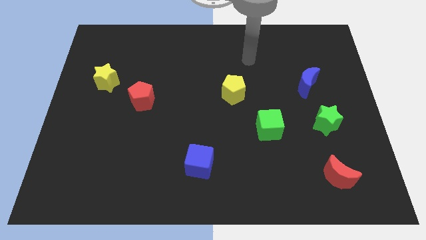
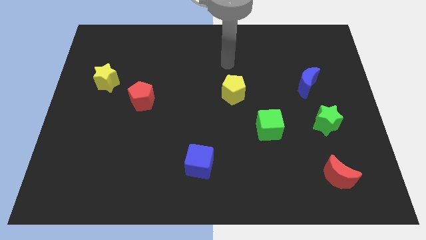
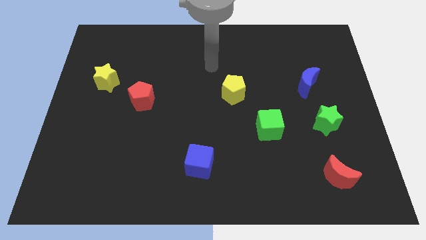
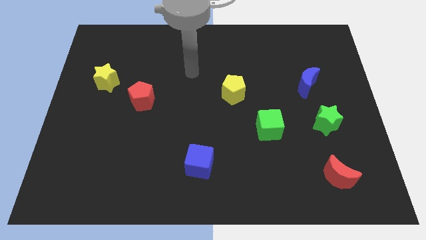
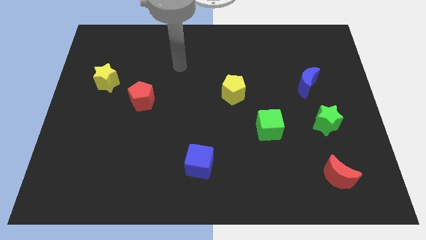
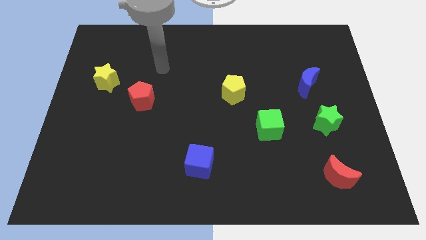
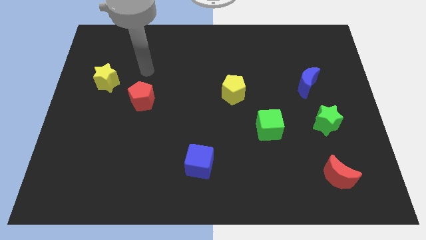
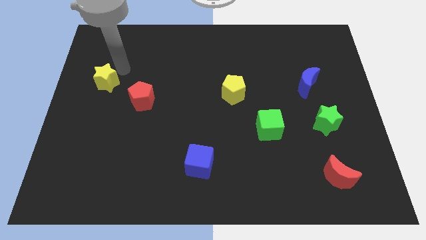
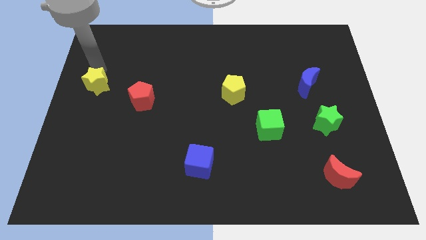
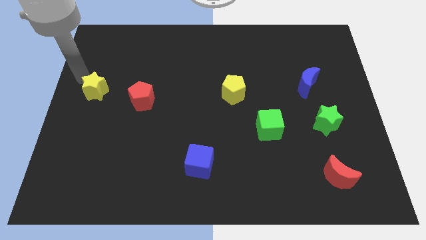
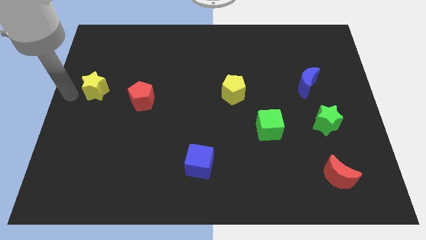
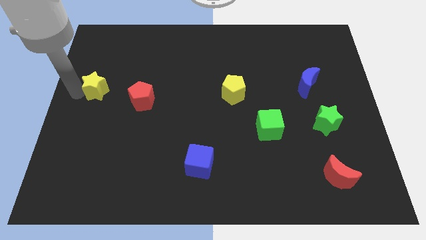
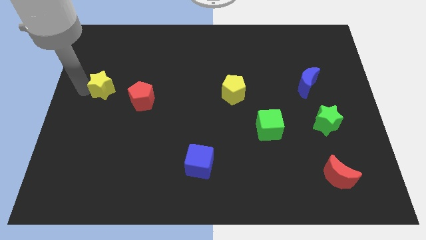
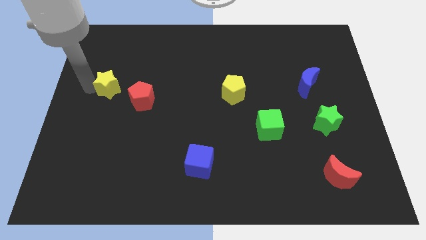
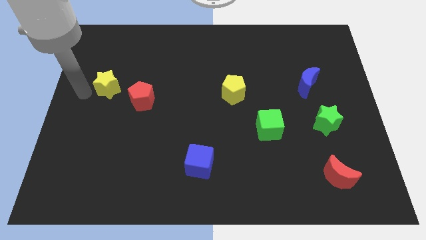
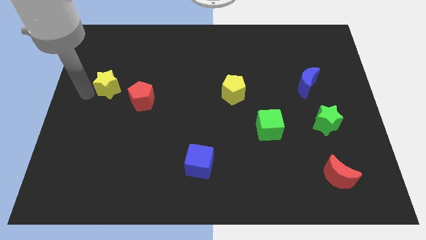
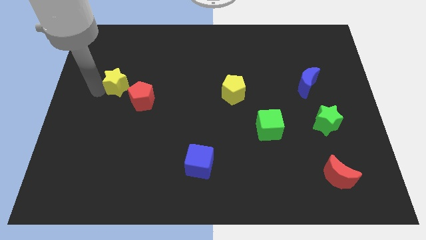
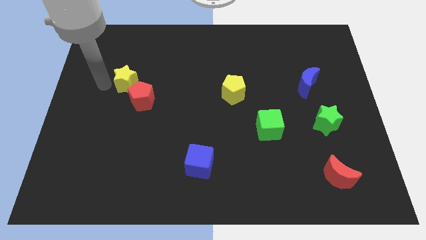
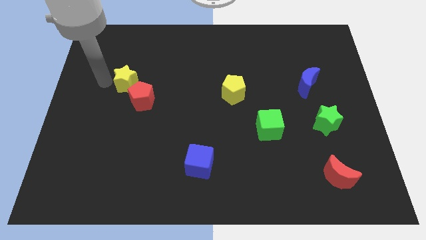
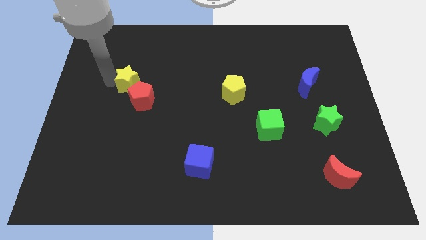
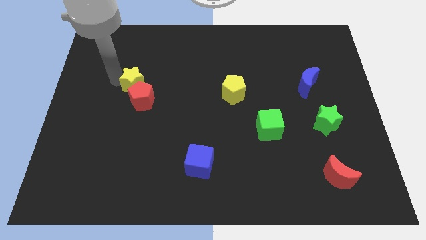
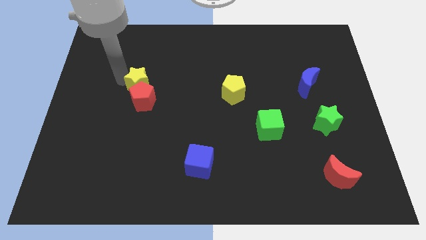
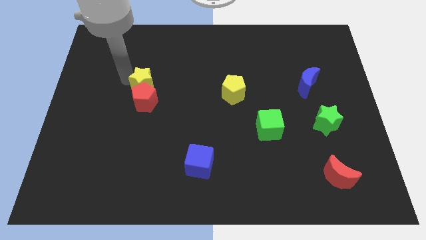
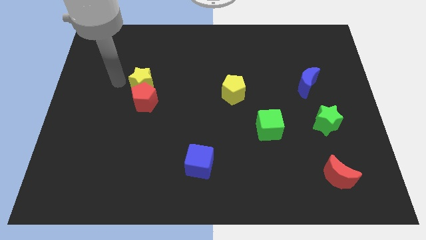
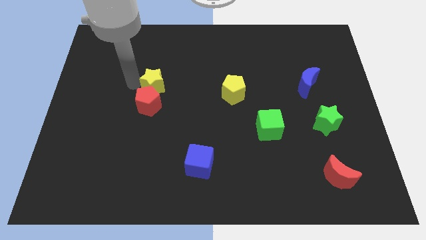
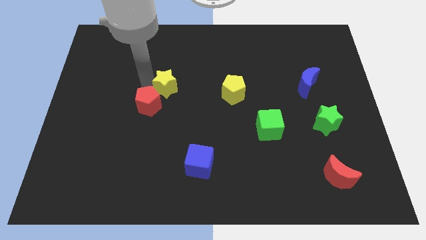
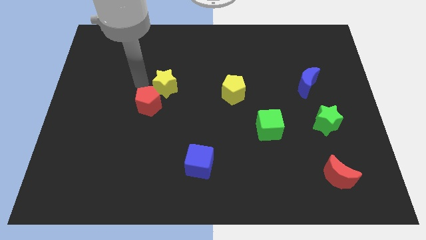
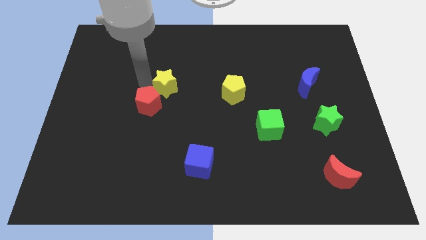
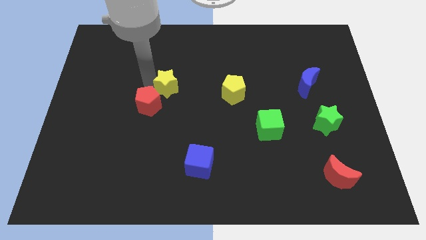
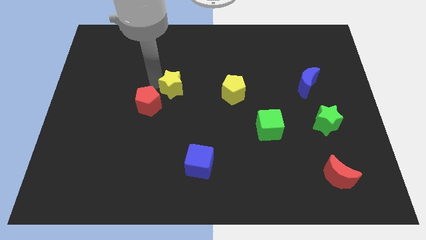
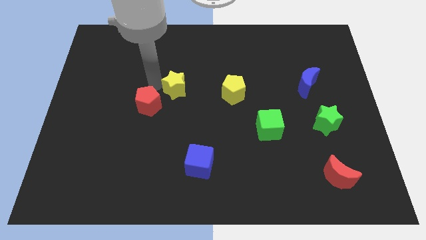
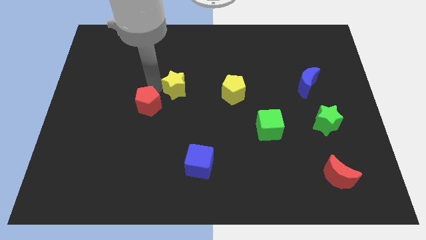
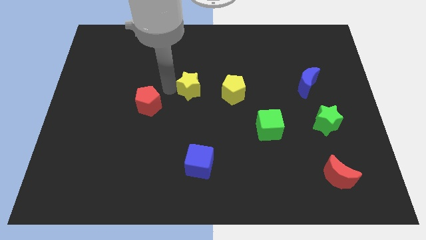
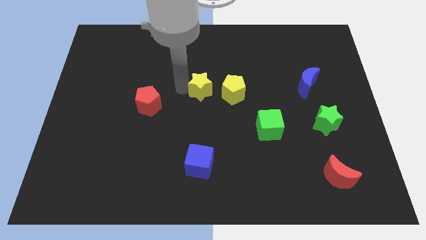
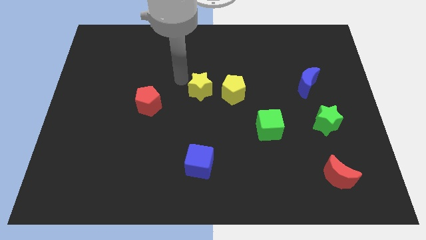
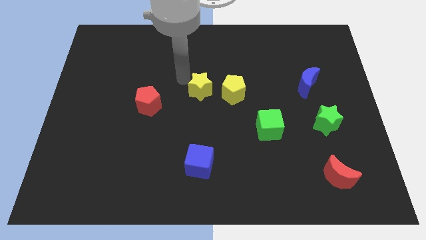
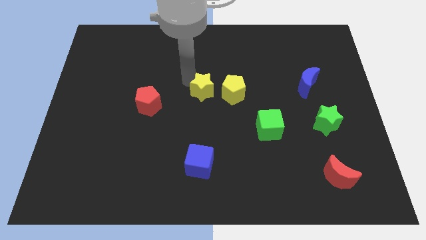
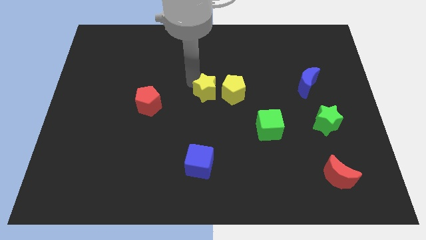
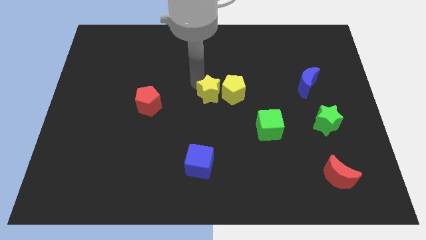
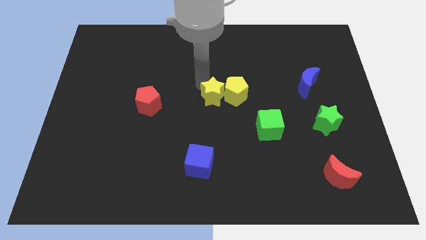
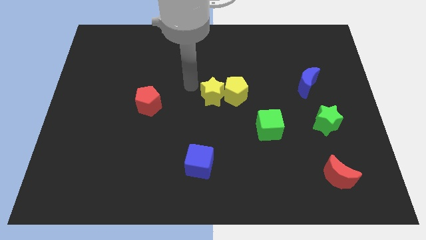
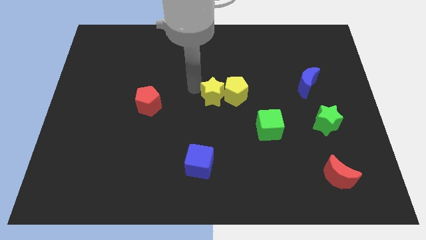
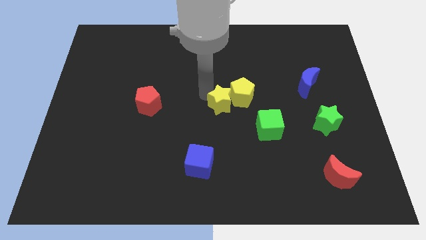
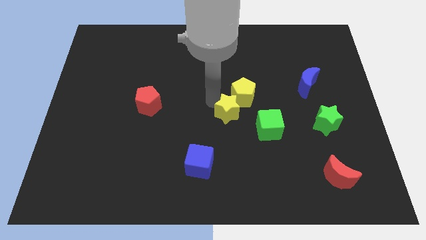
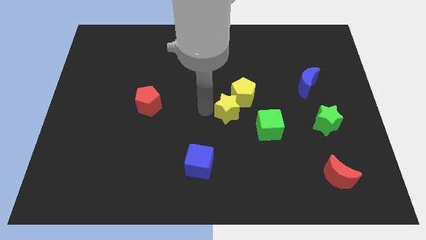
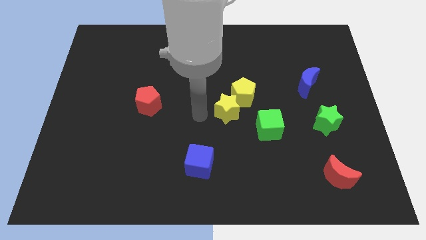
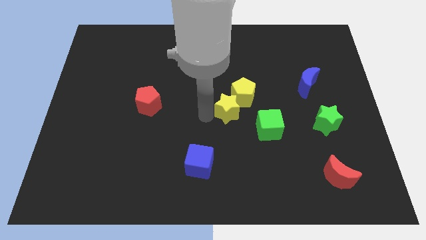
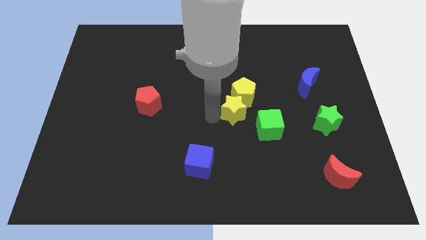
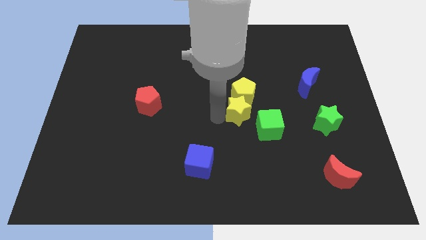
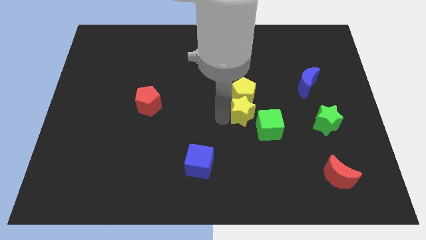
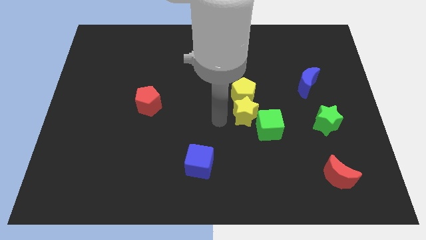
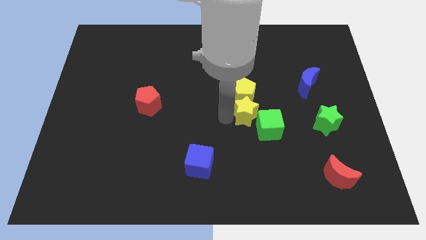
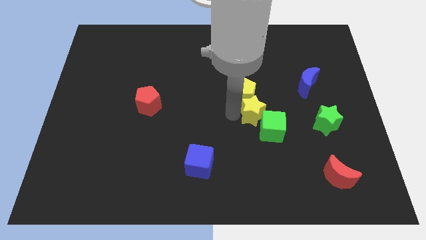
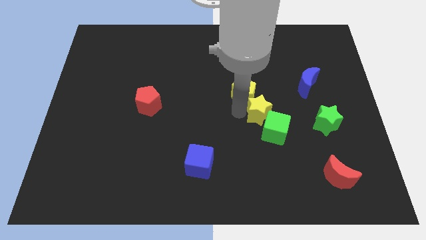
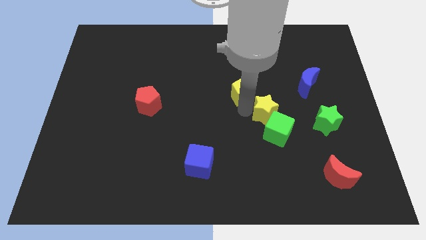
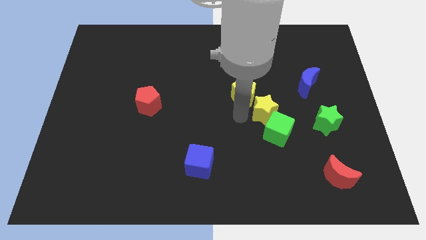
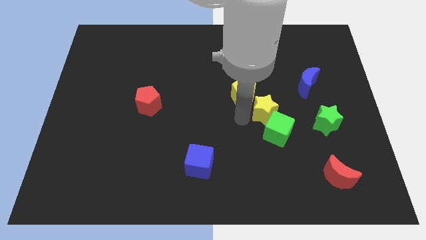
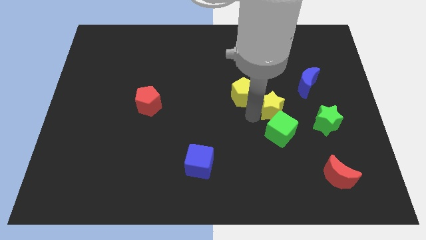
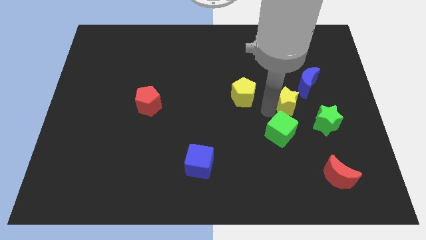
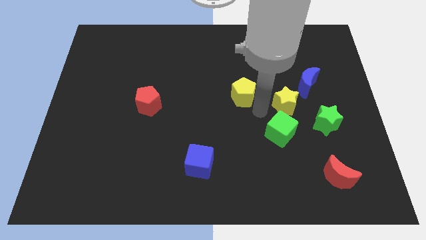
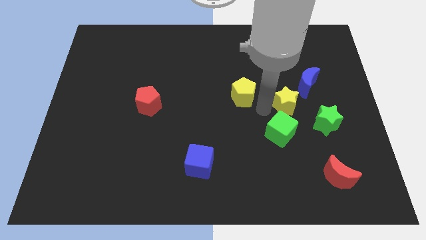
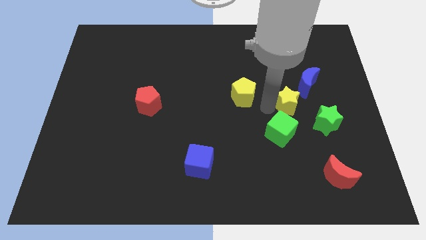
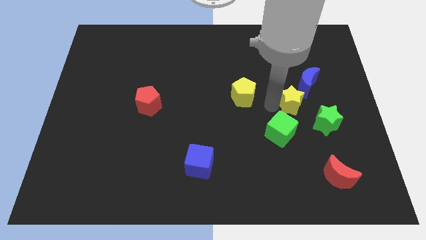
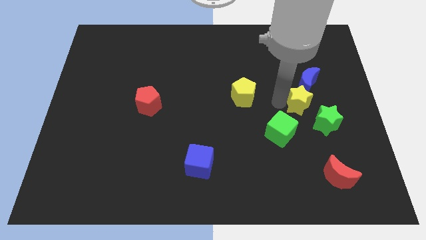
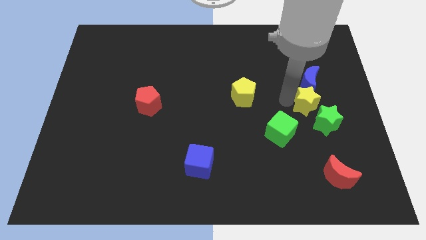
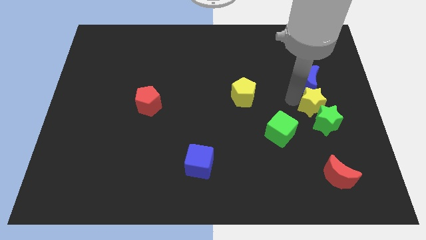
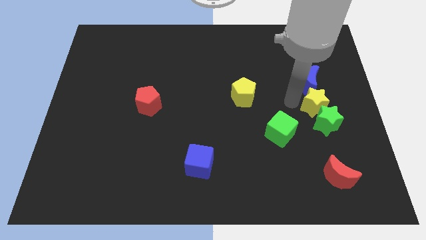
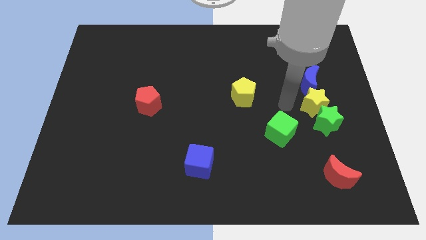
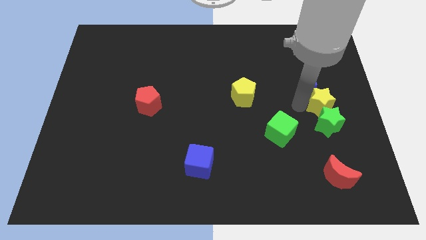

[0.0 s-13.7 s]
put the yellow star to the right side
